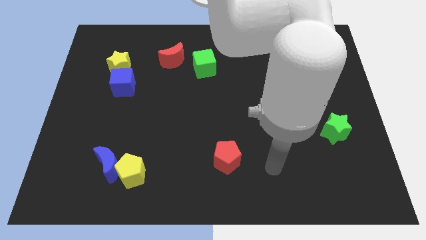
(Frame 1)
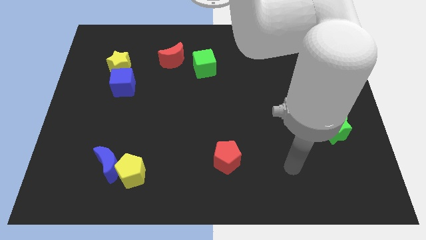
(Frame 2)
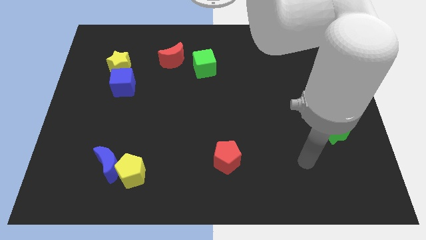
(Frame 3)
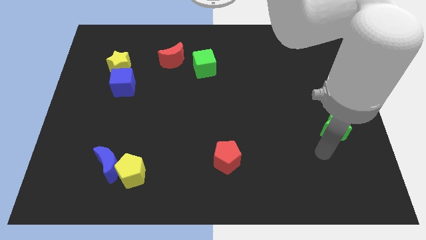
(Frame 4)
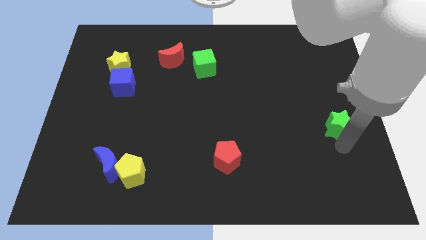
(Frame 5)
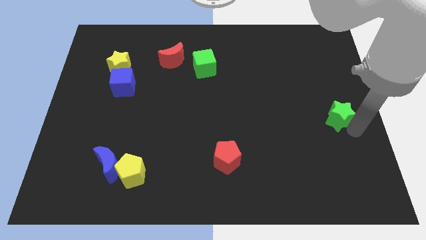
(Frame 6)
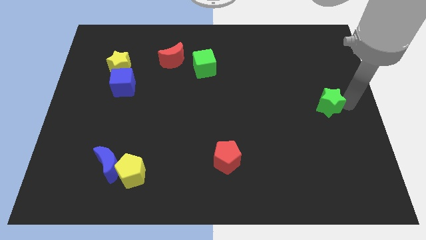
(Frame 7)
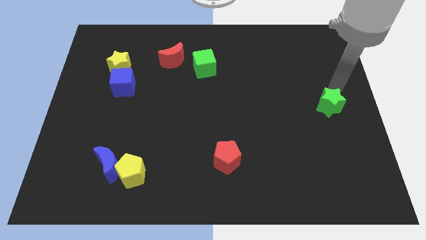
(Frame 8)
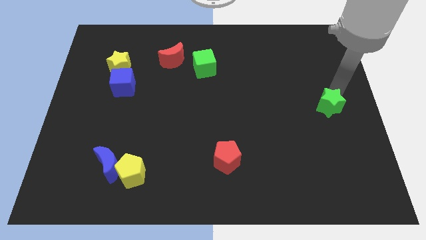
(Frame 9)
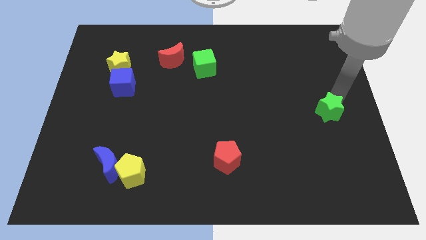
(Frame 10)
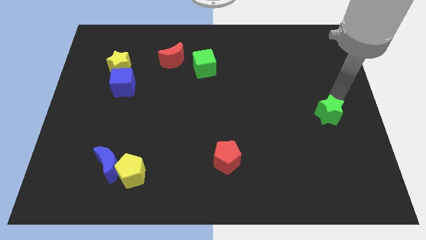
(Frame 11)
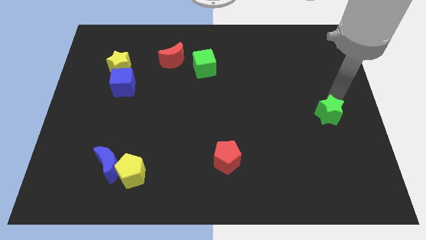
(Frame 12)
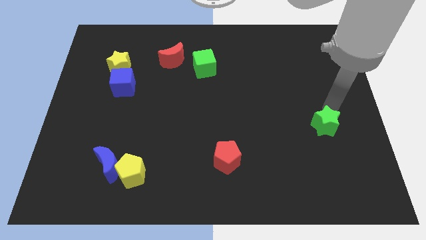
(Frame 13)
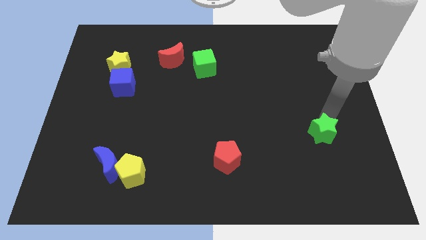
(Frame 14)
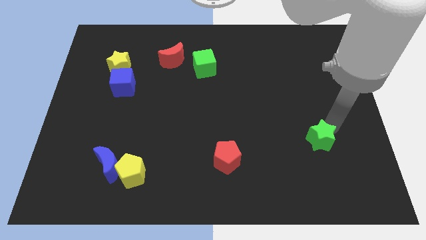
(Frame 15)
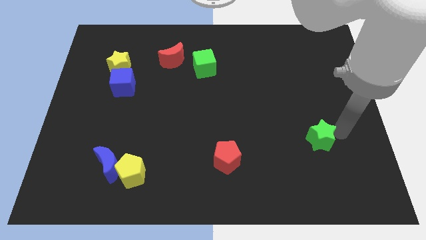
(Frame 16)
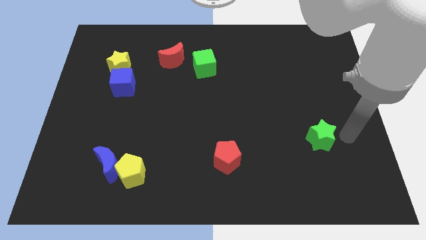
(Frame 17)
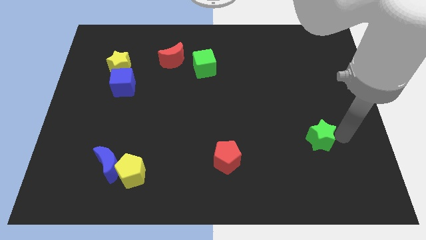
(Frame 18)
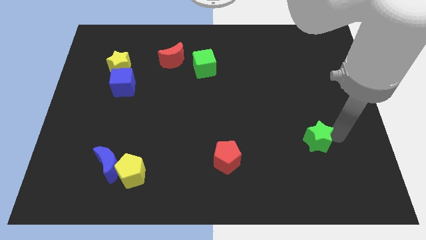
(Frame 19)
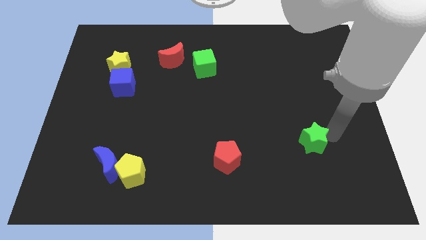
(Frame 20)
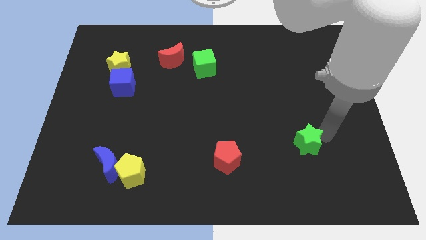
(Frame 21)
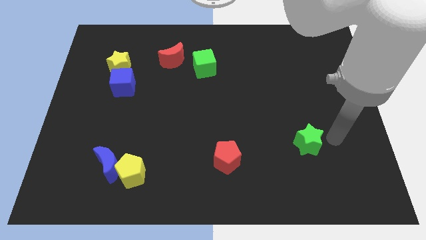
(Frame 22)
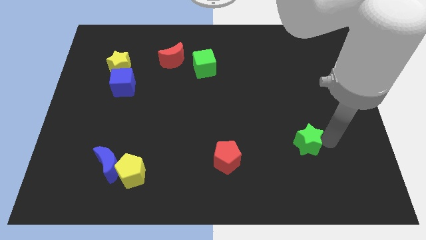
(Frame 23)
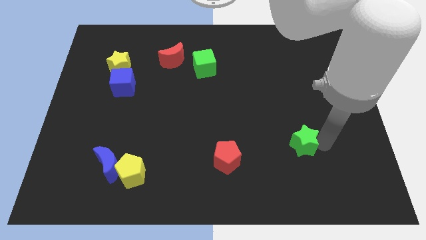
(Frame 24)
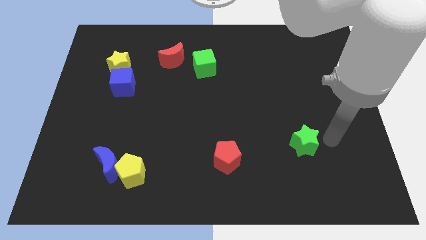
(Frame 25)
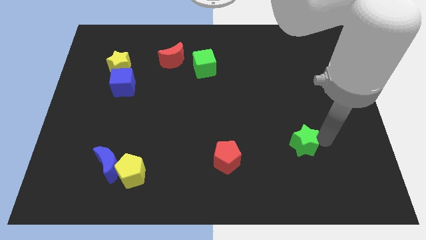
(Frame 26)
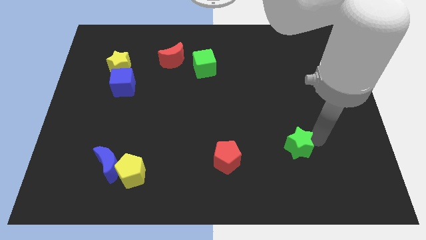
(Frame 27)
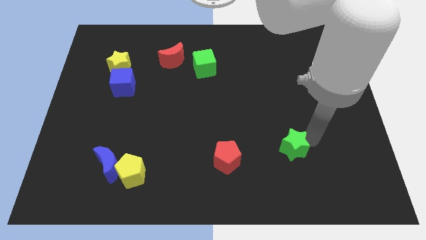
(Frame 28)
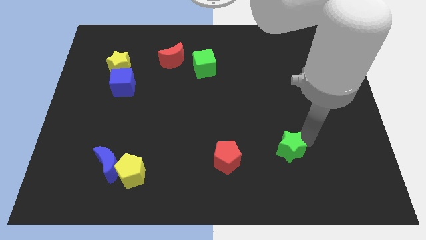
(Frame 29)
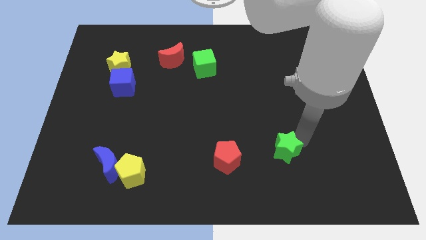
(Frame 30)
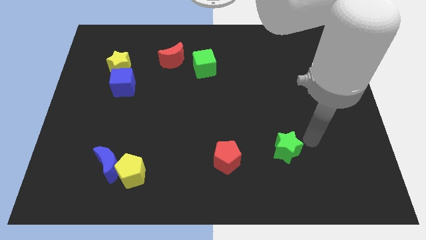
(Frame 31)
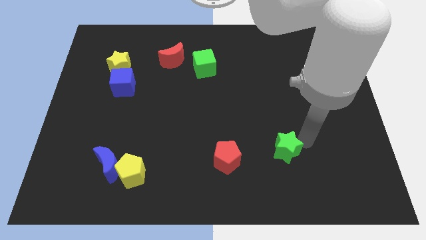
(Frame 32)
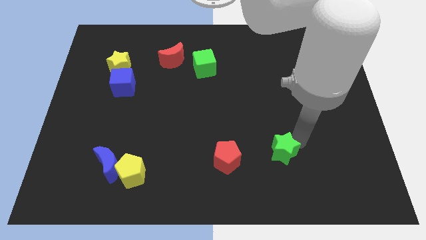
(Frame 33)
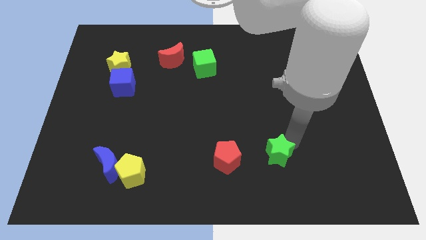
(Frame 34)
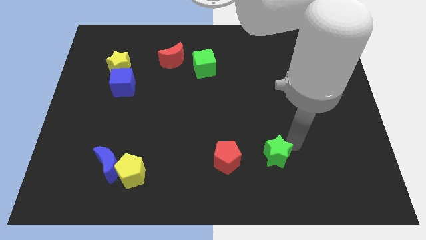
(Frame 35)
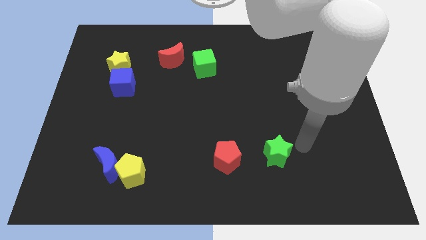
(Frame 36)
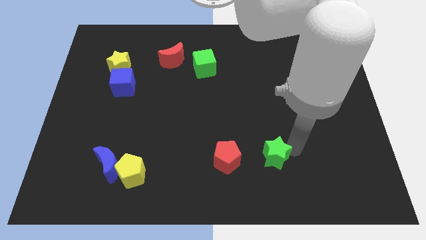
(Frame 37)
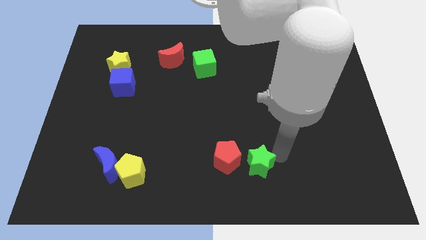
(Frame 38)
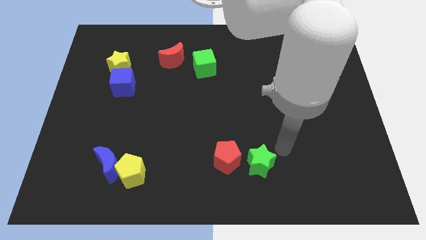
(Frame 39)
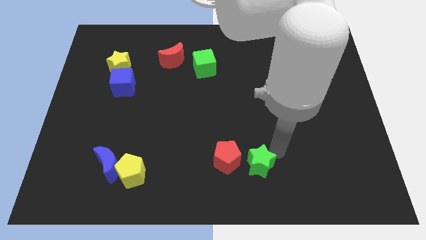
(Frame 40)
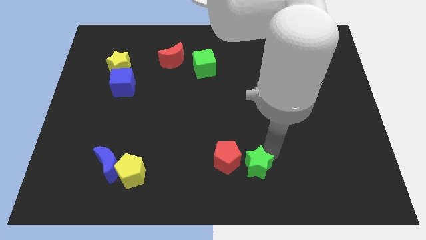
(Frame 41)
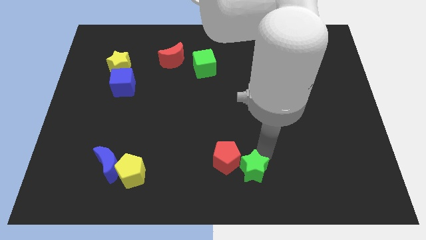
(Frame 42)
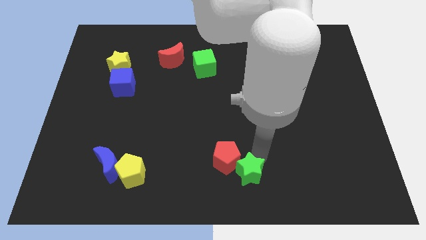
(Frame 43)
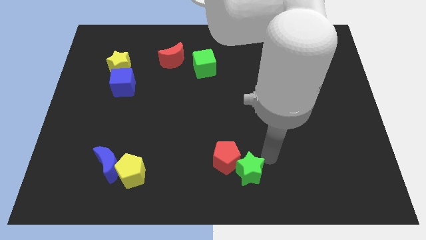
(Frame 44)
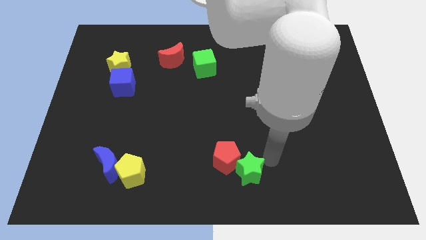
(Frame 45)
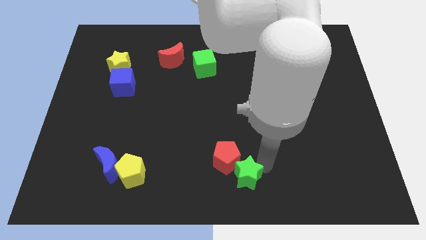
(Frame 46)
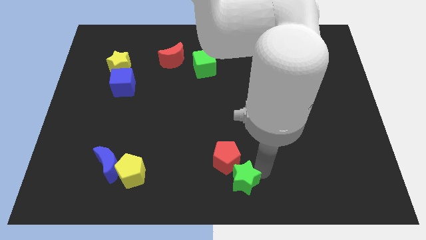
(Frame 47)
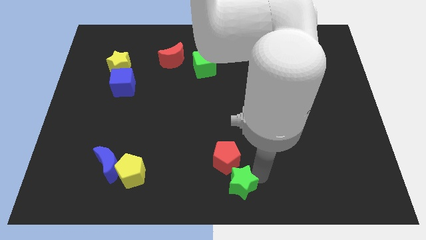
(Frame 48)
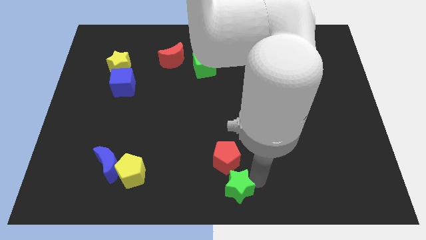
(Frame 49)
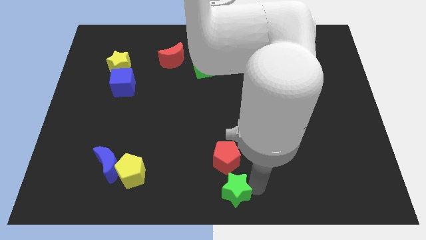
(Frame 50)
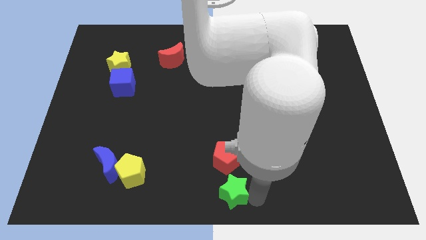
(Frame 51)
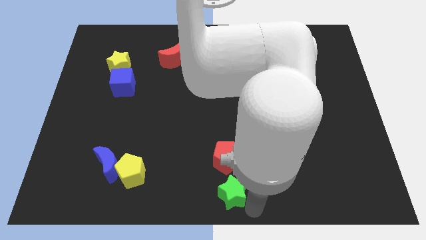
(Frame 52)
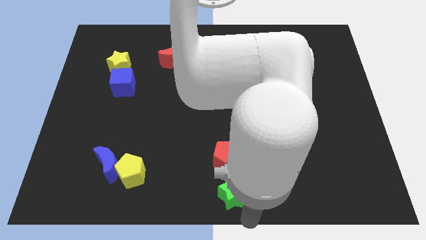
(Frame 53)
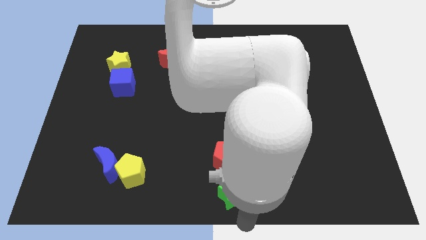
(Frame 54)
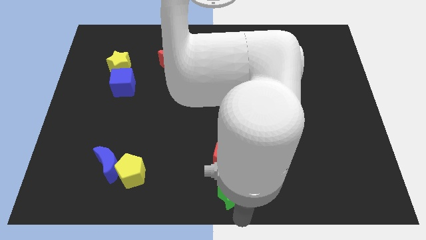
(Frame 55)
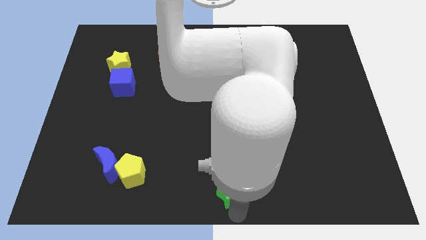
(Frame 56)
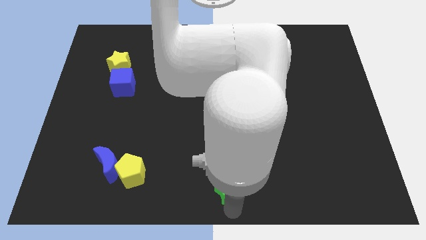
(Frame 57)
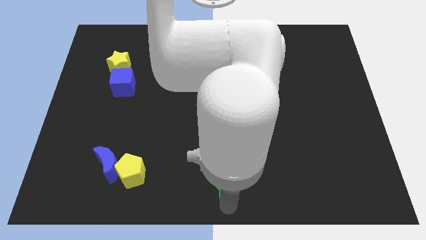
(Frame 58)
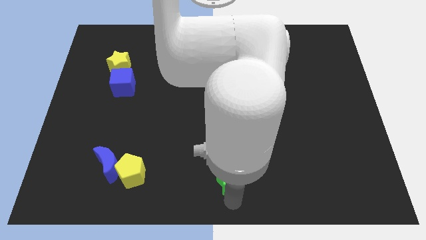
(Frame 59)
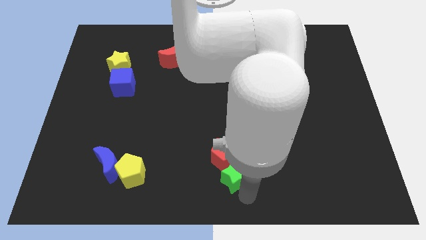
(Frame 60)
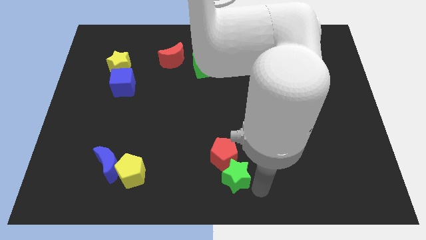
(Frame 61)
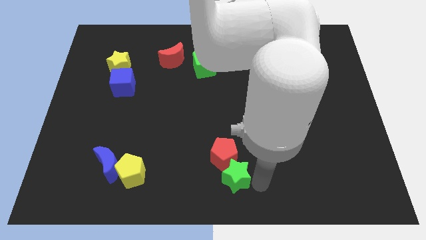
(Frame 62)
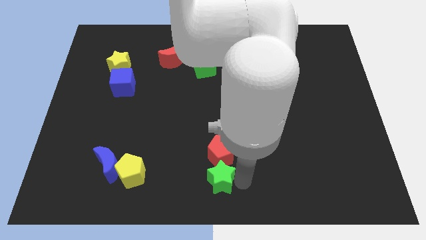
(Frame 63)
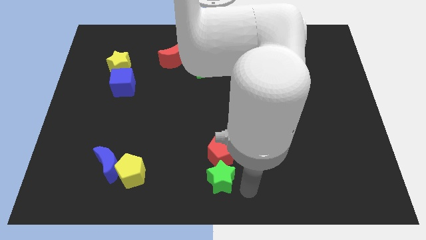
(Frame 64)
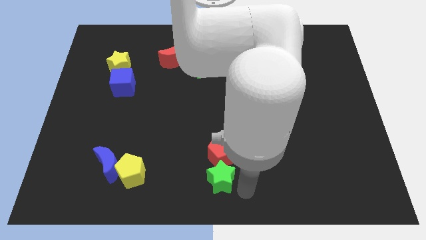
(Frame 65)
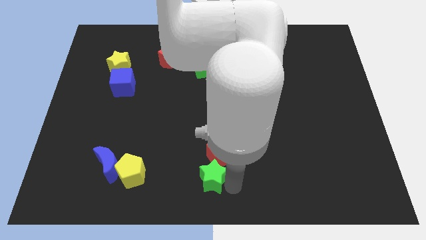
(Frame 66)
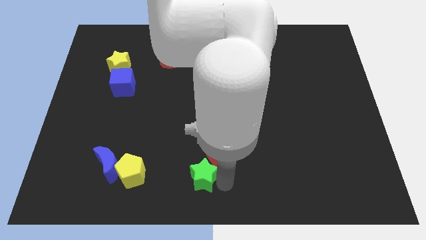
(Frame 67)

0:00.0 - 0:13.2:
put the green star just right of the yellow pentagon
